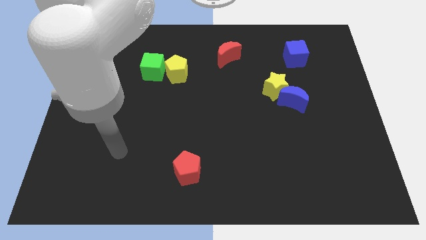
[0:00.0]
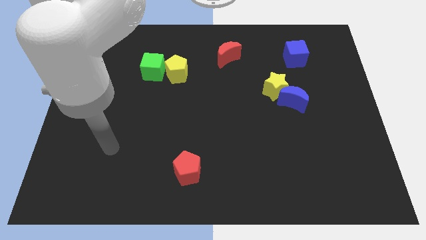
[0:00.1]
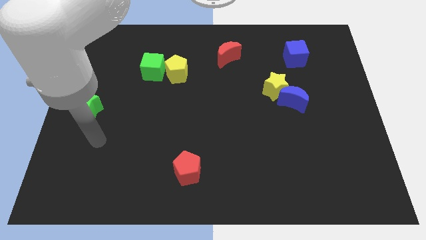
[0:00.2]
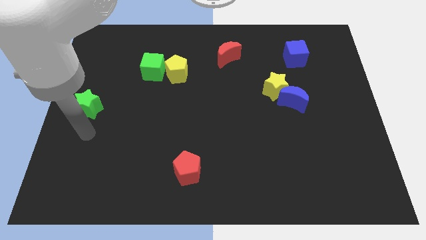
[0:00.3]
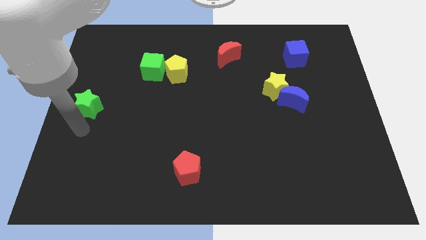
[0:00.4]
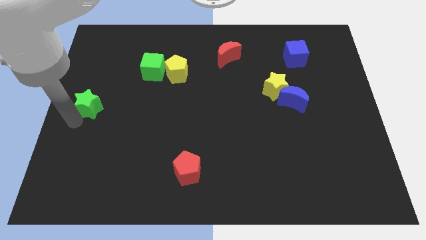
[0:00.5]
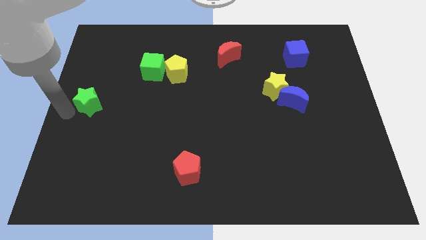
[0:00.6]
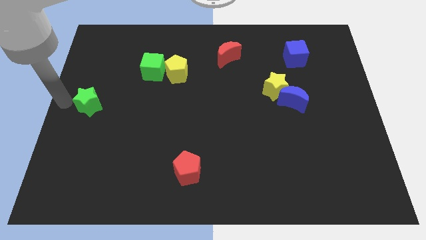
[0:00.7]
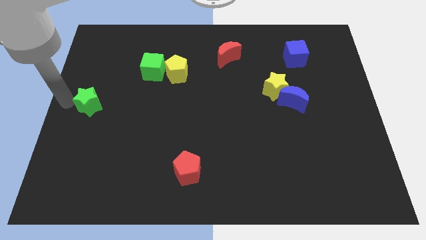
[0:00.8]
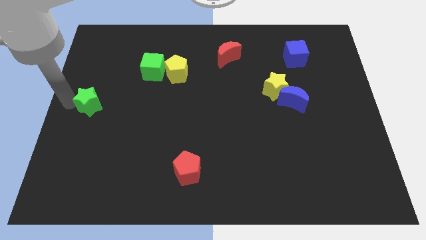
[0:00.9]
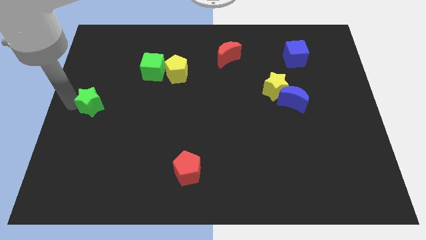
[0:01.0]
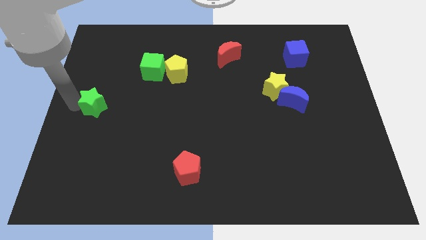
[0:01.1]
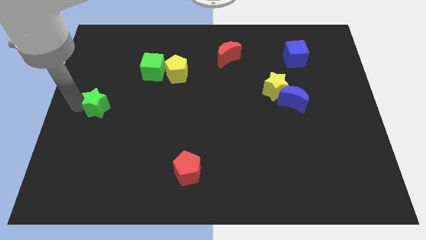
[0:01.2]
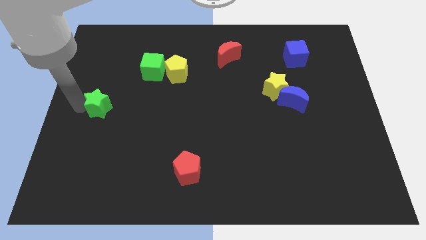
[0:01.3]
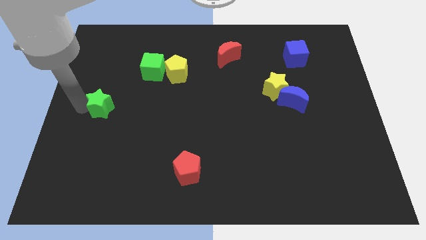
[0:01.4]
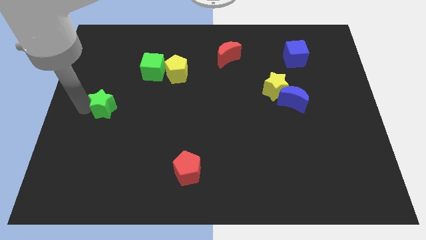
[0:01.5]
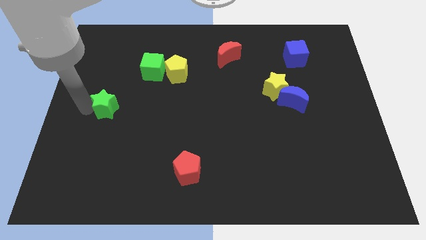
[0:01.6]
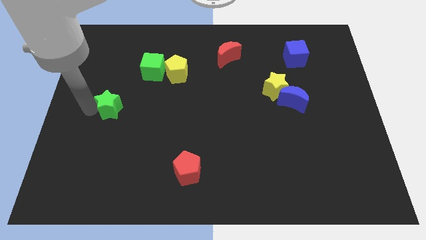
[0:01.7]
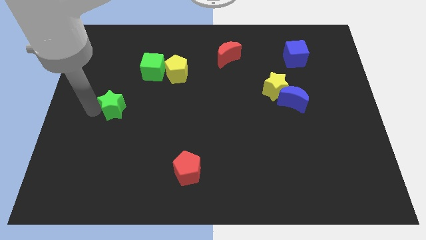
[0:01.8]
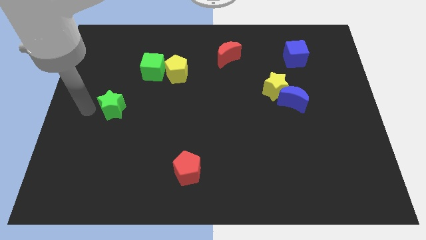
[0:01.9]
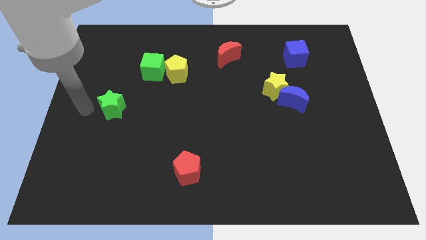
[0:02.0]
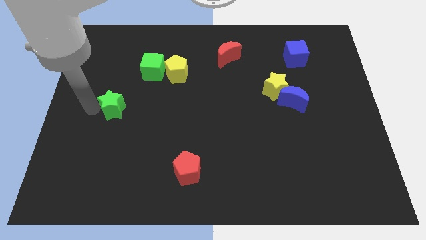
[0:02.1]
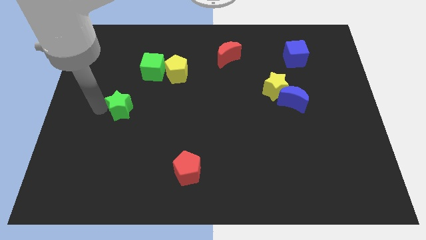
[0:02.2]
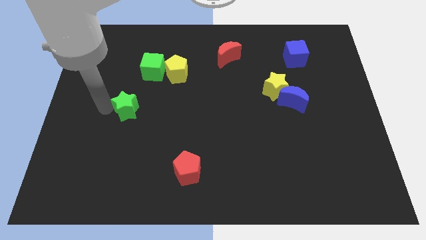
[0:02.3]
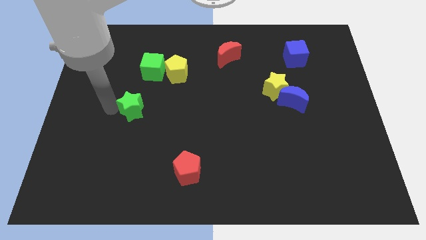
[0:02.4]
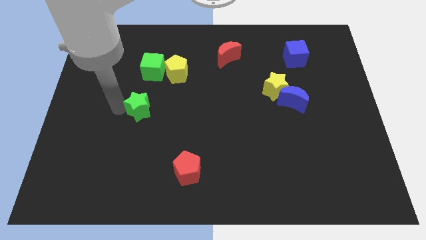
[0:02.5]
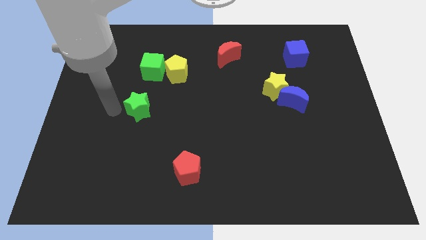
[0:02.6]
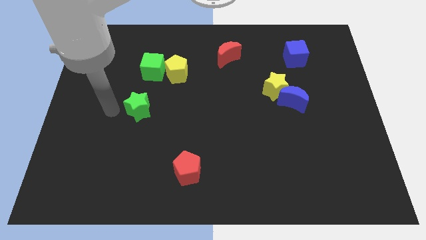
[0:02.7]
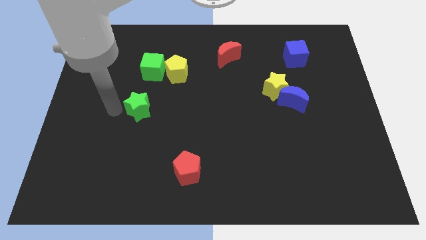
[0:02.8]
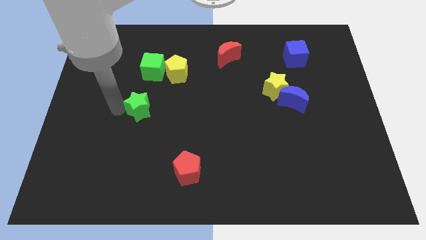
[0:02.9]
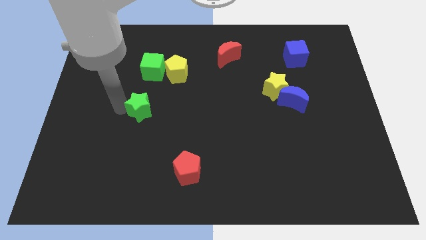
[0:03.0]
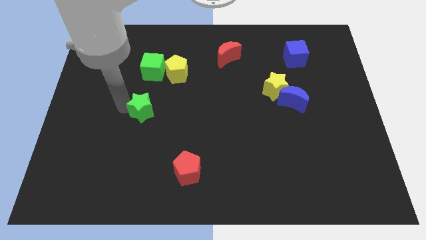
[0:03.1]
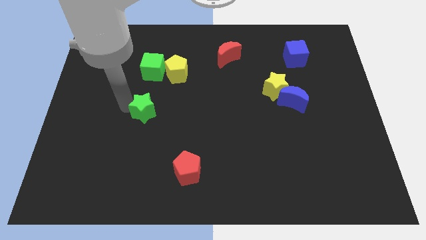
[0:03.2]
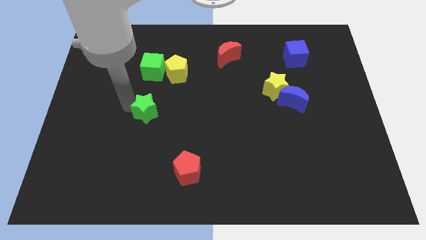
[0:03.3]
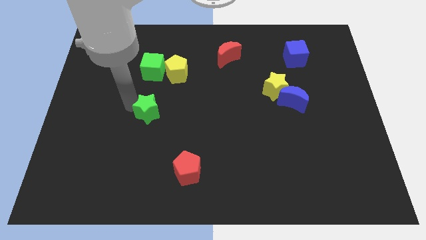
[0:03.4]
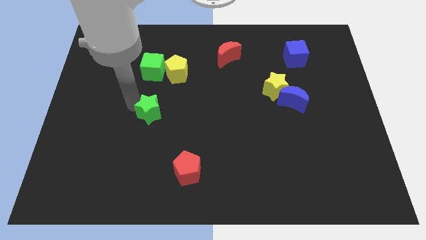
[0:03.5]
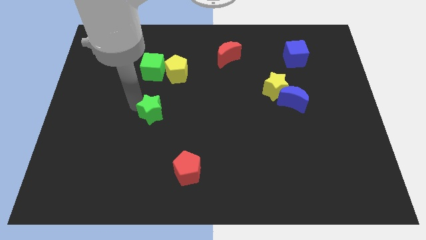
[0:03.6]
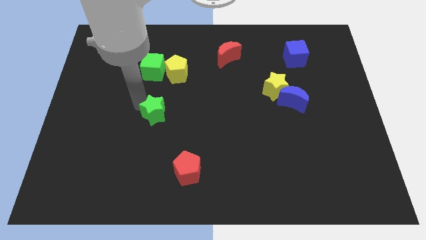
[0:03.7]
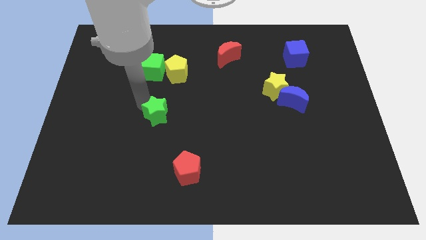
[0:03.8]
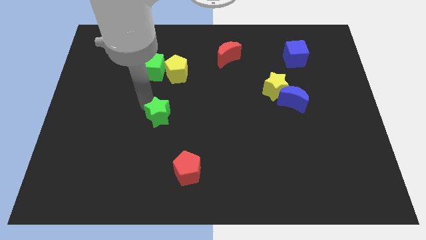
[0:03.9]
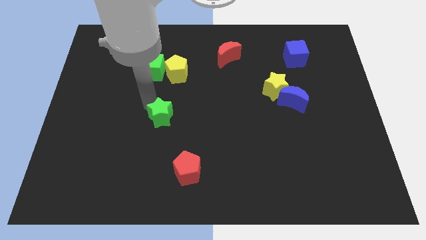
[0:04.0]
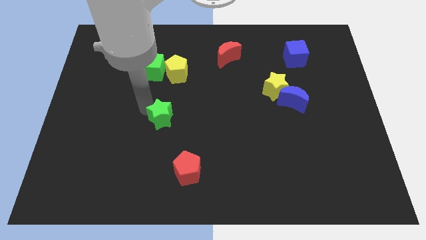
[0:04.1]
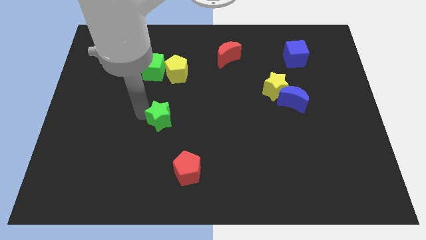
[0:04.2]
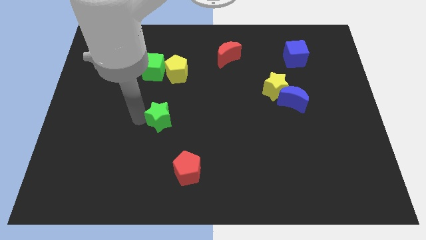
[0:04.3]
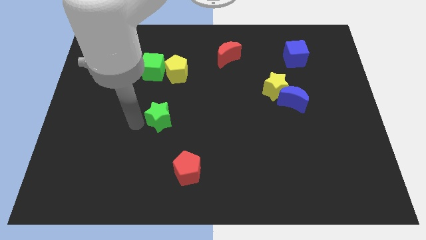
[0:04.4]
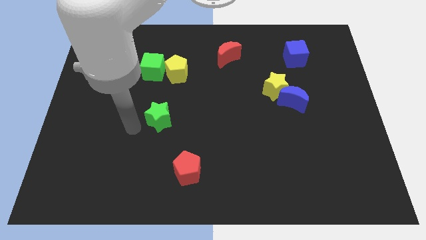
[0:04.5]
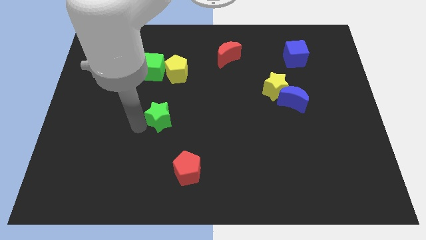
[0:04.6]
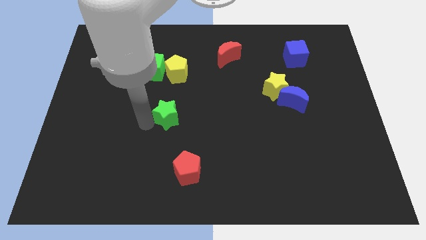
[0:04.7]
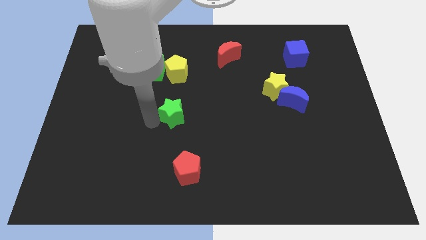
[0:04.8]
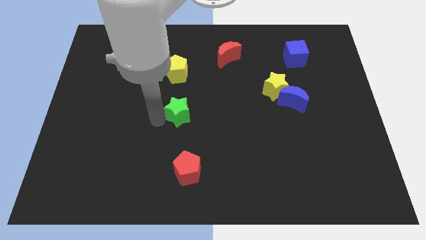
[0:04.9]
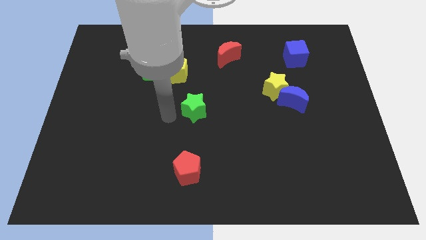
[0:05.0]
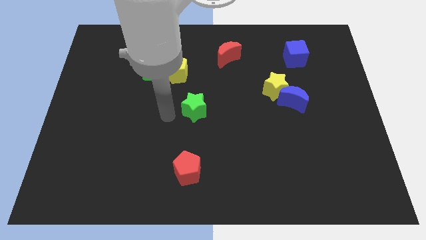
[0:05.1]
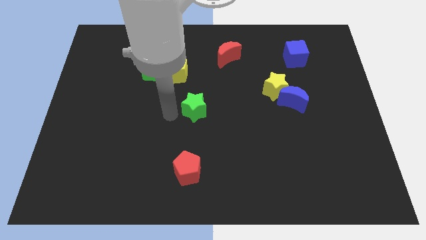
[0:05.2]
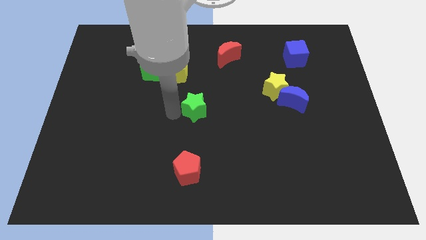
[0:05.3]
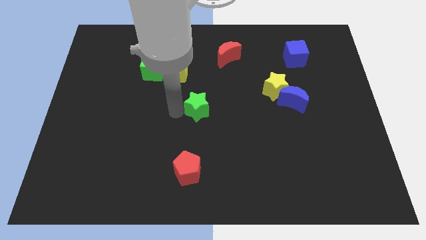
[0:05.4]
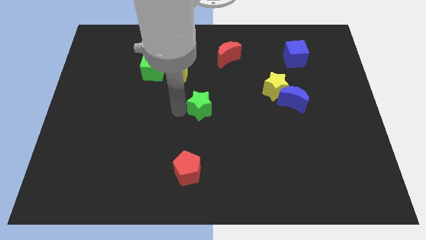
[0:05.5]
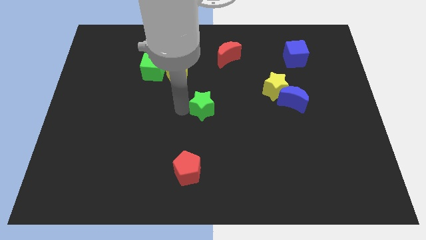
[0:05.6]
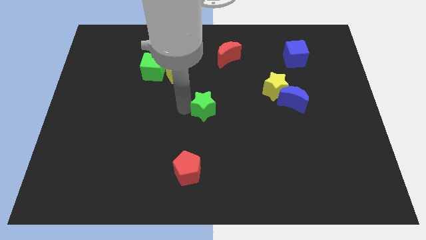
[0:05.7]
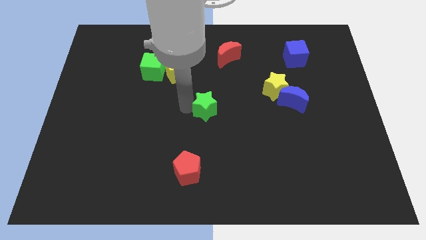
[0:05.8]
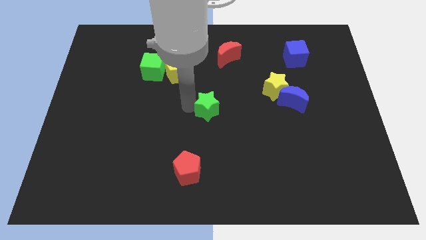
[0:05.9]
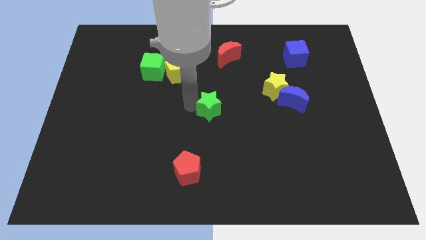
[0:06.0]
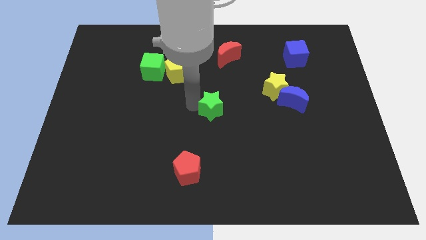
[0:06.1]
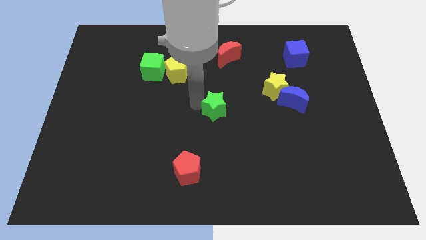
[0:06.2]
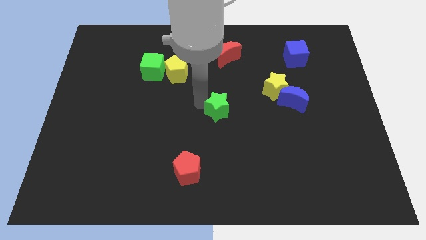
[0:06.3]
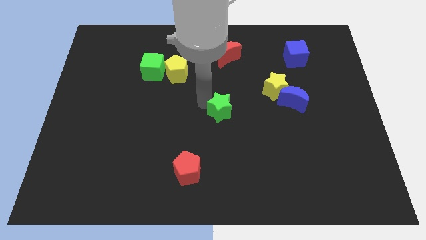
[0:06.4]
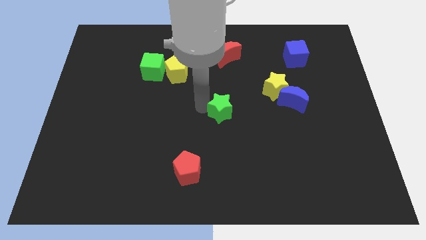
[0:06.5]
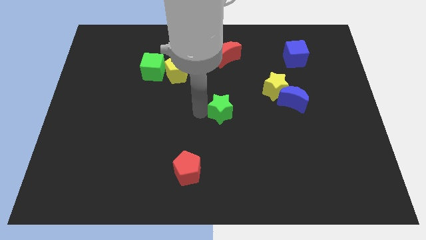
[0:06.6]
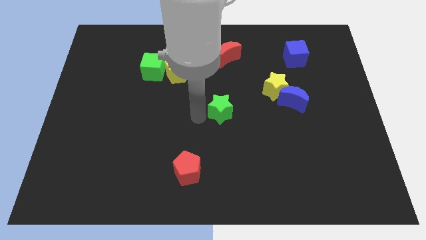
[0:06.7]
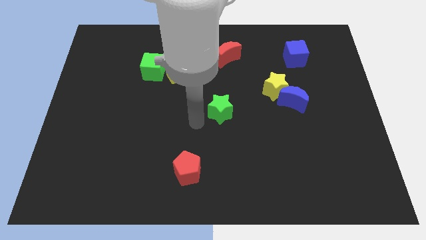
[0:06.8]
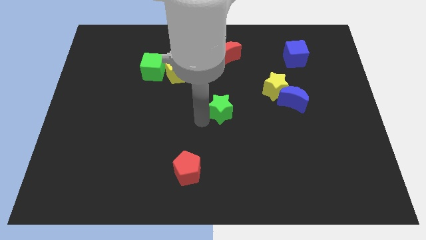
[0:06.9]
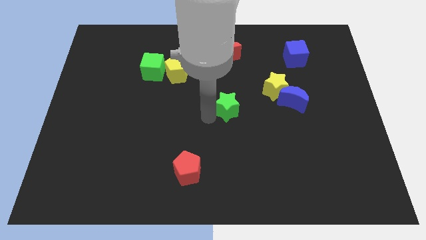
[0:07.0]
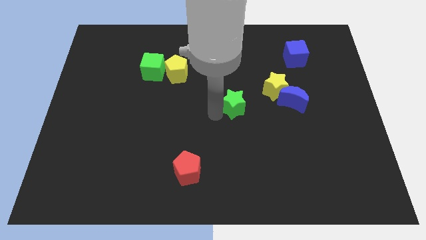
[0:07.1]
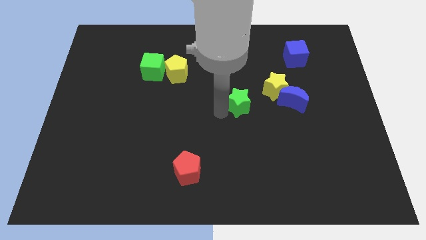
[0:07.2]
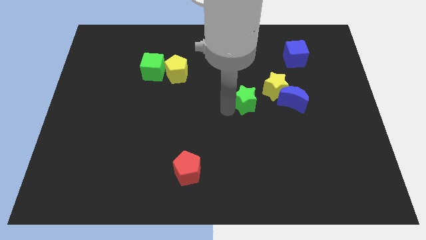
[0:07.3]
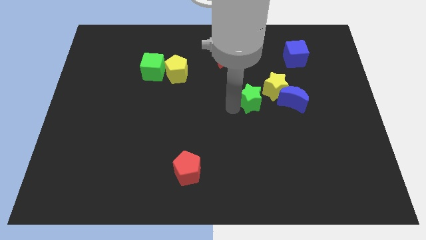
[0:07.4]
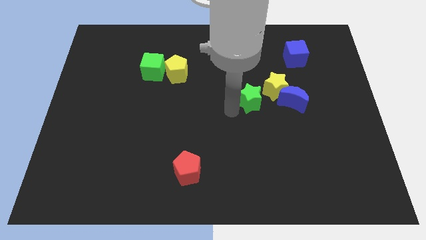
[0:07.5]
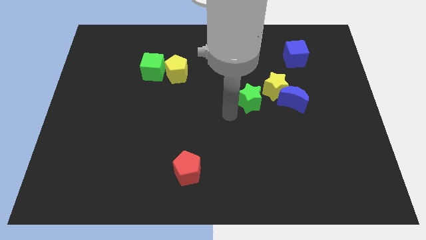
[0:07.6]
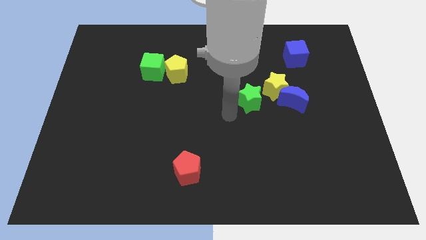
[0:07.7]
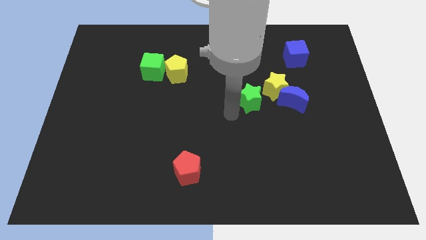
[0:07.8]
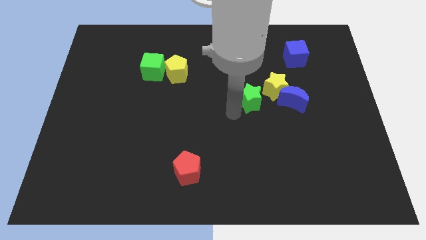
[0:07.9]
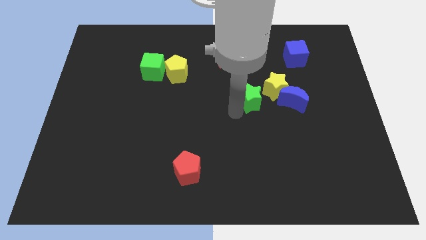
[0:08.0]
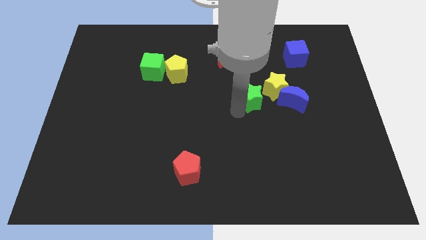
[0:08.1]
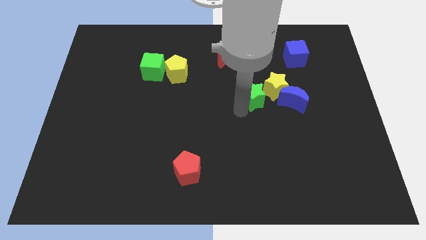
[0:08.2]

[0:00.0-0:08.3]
push the green star next to the yellow star
